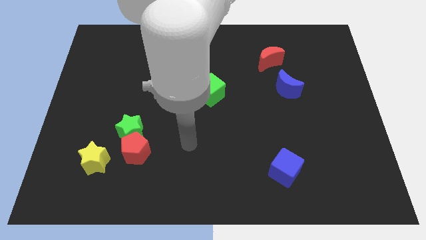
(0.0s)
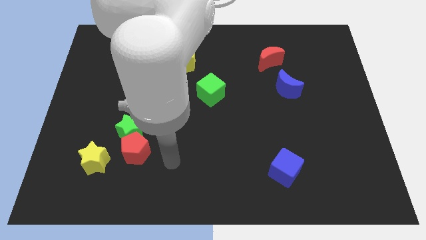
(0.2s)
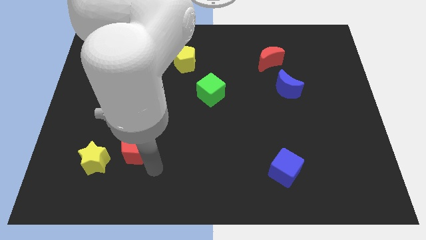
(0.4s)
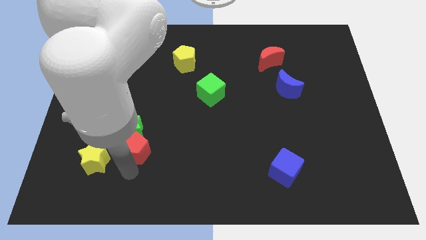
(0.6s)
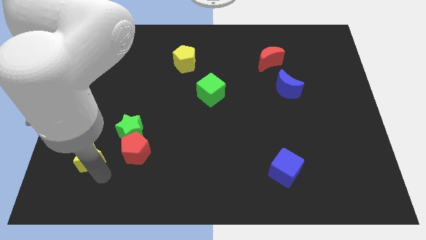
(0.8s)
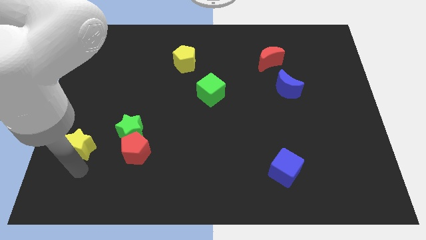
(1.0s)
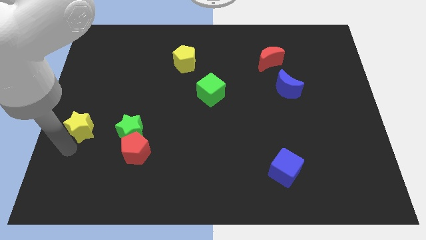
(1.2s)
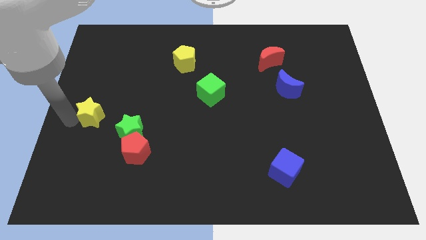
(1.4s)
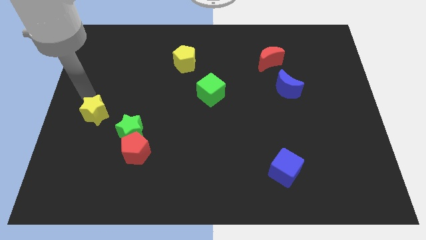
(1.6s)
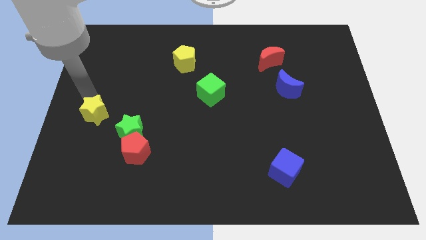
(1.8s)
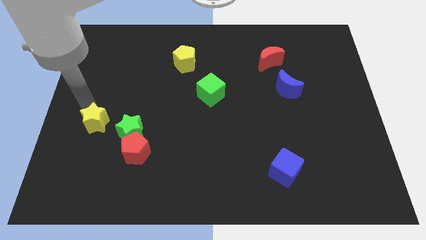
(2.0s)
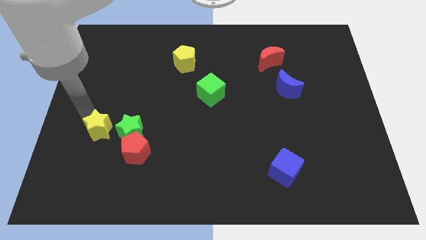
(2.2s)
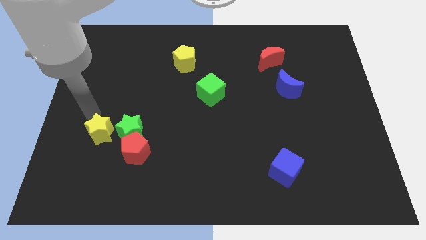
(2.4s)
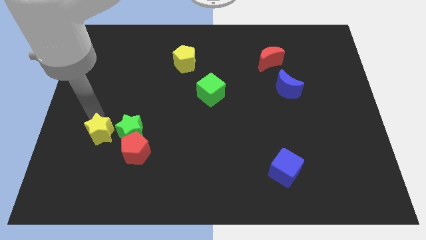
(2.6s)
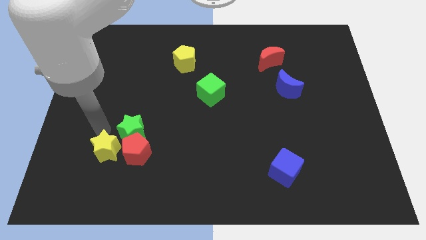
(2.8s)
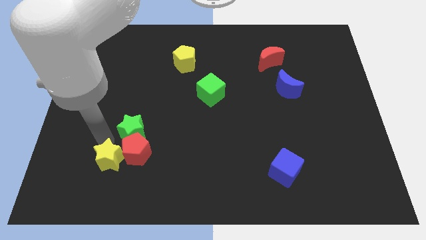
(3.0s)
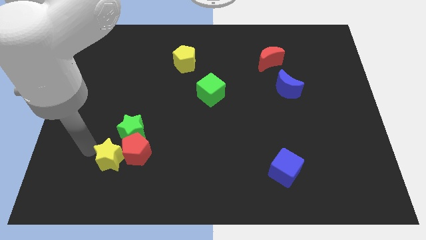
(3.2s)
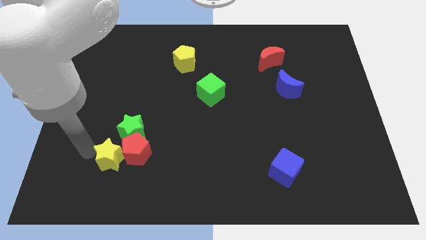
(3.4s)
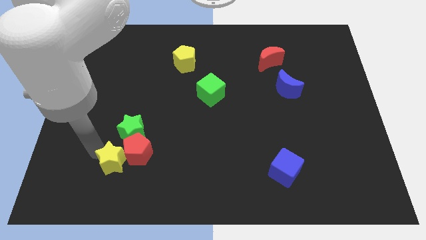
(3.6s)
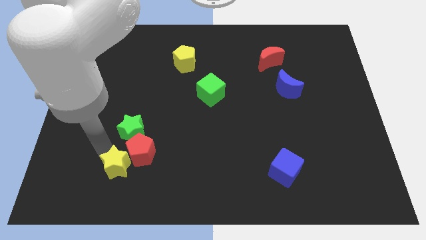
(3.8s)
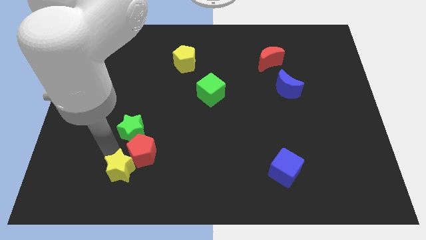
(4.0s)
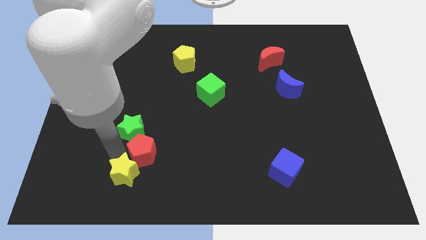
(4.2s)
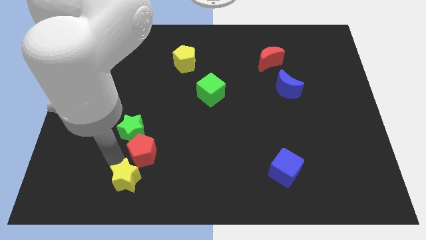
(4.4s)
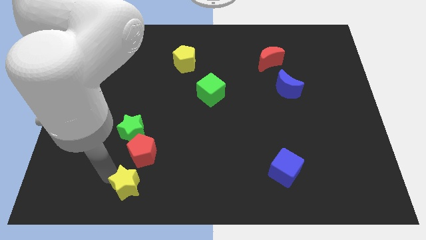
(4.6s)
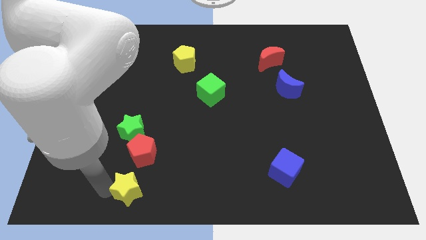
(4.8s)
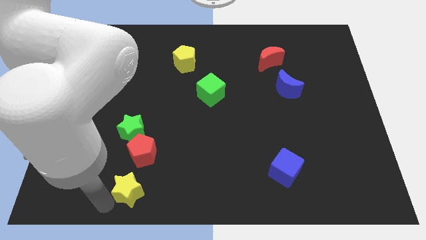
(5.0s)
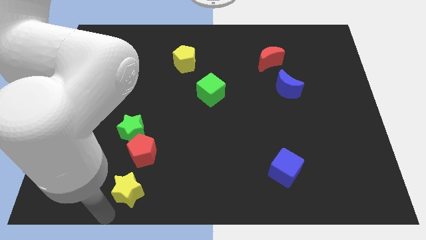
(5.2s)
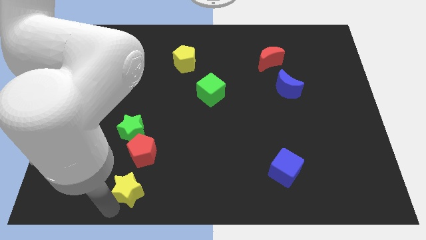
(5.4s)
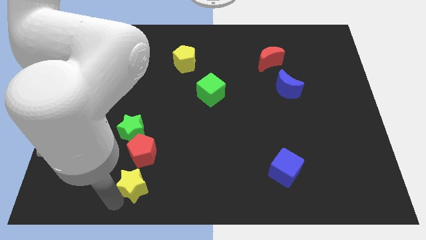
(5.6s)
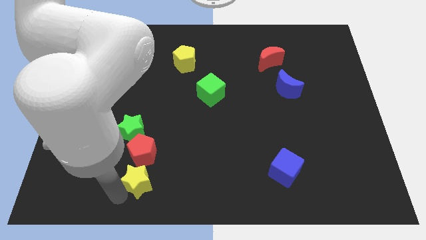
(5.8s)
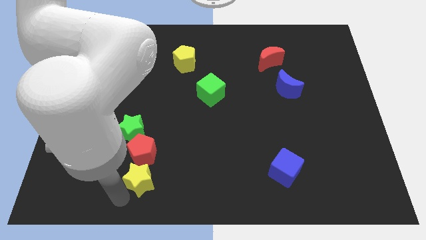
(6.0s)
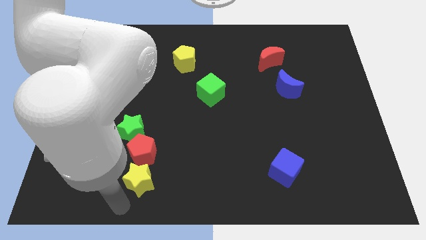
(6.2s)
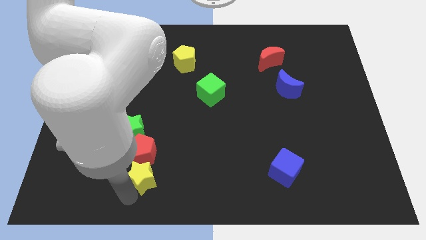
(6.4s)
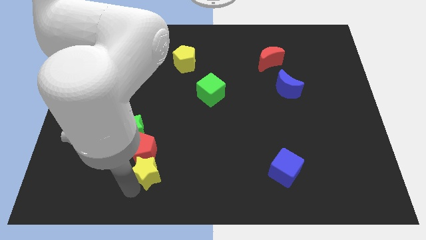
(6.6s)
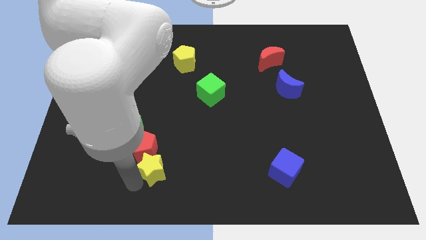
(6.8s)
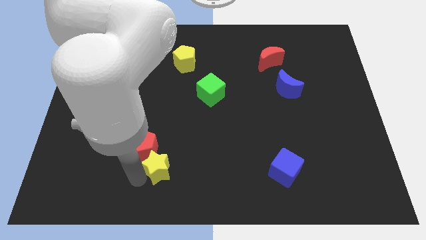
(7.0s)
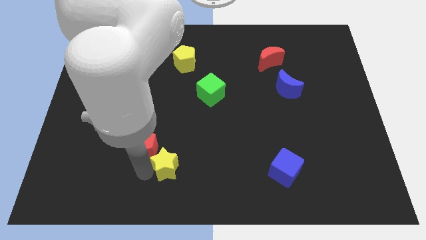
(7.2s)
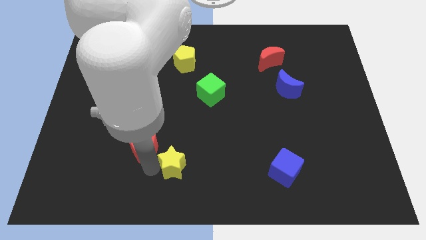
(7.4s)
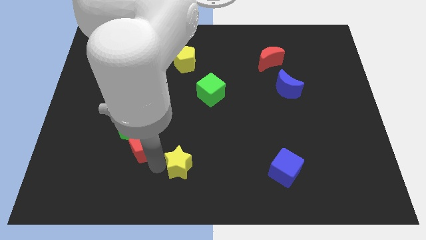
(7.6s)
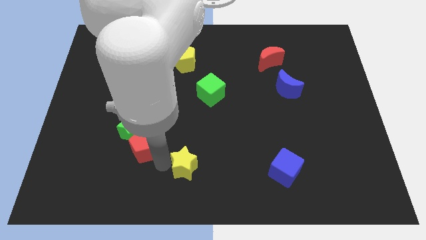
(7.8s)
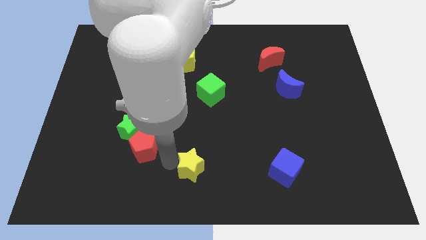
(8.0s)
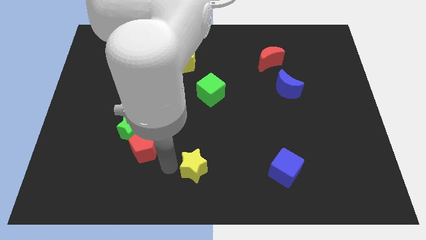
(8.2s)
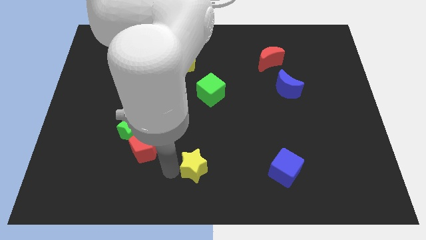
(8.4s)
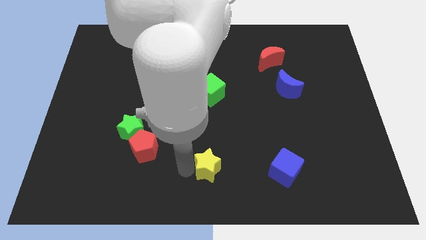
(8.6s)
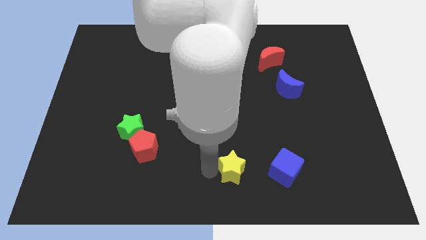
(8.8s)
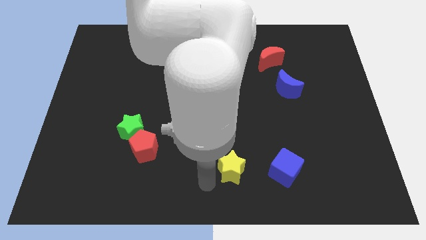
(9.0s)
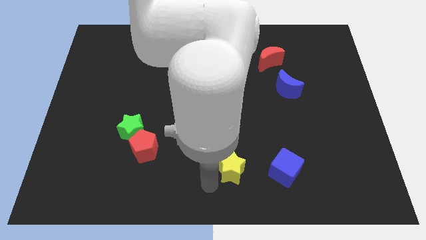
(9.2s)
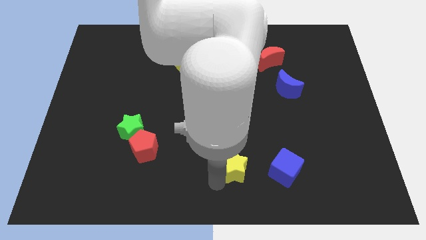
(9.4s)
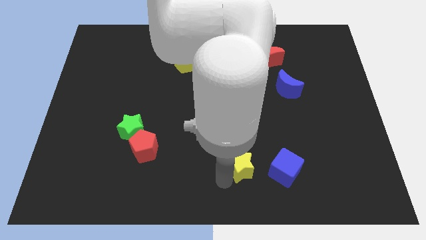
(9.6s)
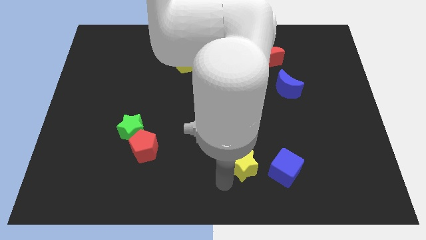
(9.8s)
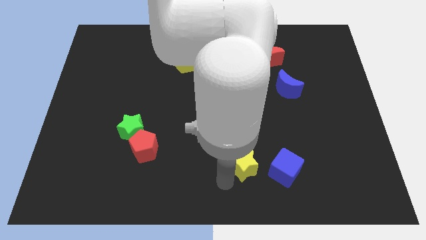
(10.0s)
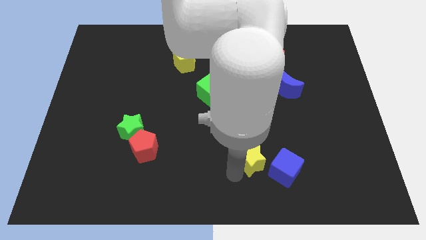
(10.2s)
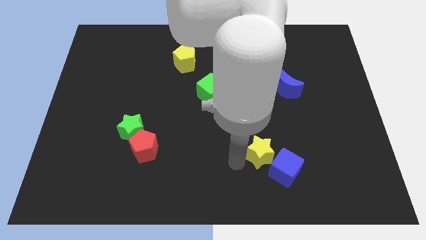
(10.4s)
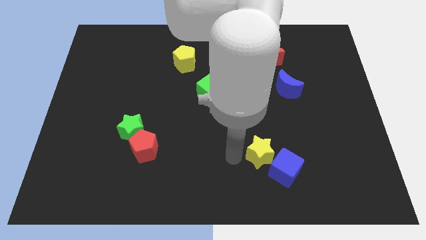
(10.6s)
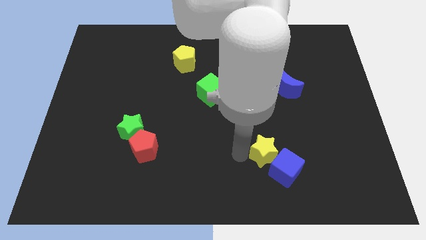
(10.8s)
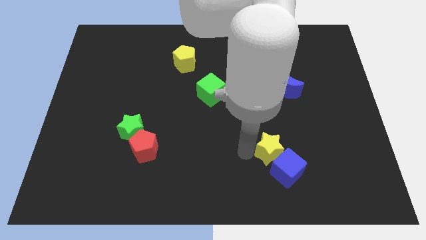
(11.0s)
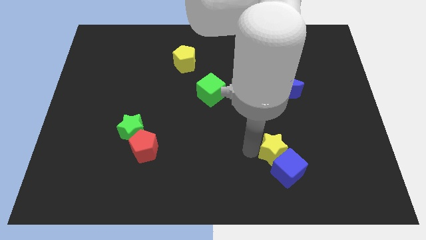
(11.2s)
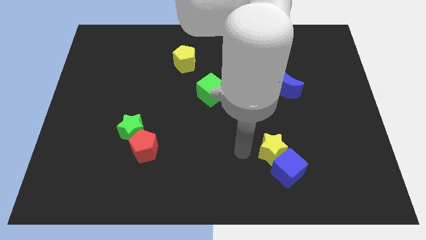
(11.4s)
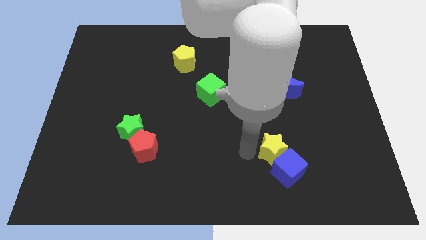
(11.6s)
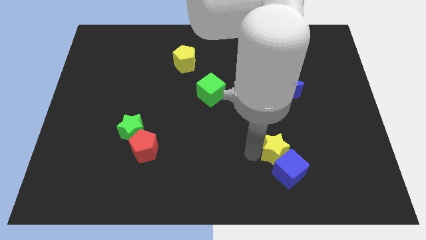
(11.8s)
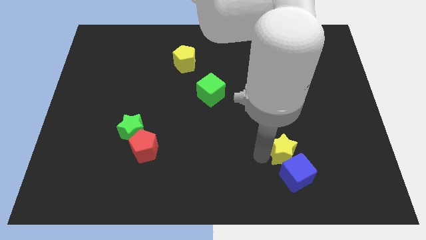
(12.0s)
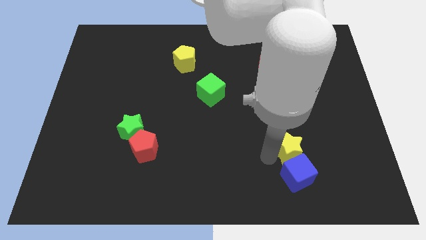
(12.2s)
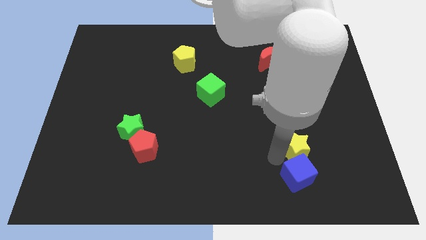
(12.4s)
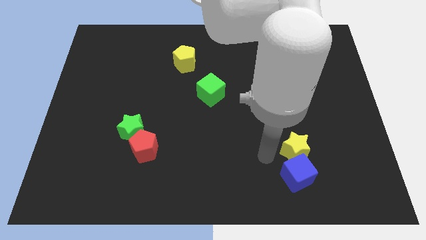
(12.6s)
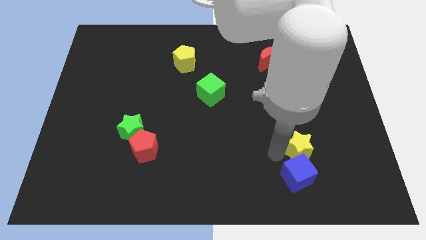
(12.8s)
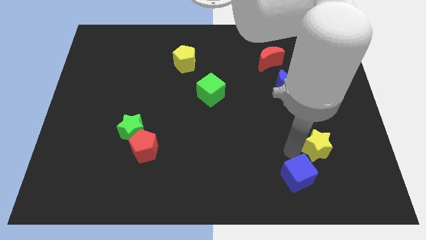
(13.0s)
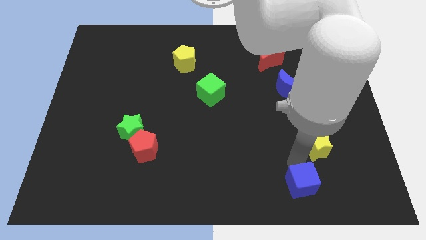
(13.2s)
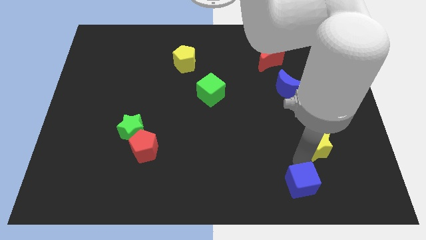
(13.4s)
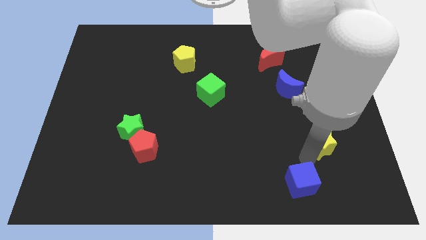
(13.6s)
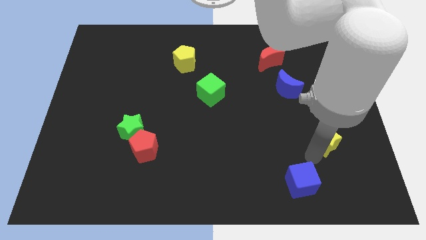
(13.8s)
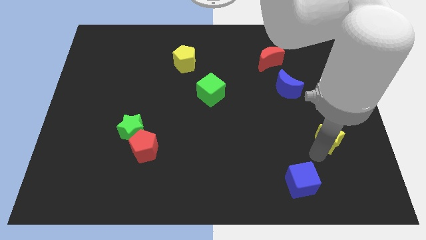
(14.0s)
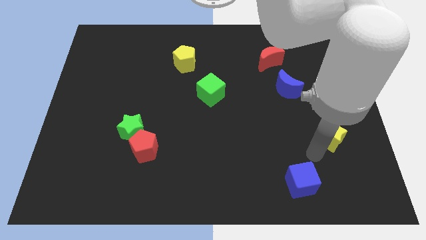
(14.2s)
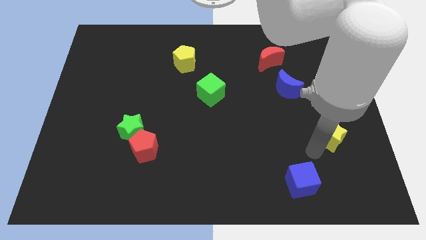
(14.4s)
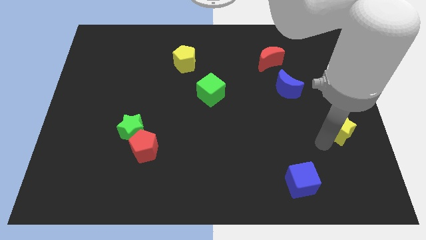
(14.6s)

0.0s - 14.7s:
put the yellow star to the right side of the board

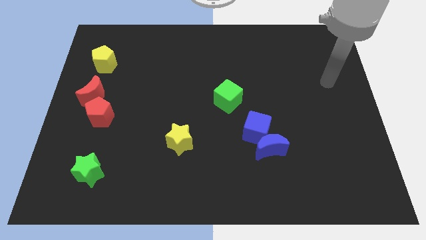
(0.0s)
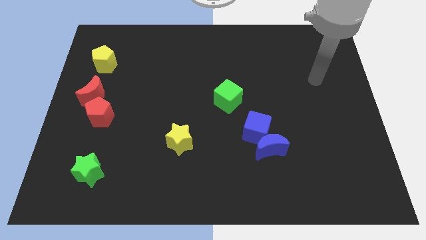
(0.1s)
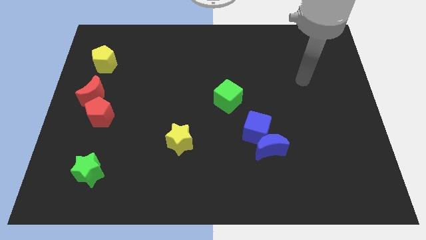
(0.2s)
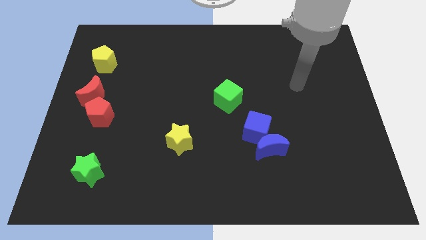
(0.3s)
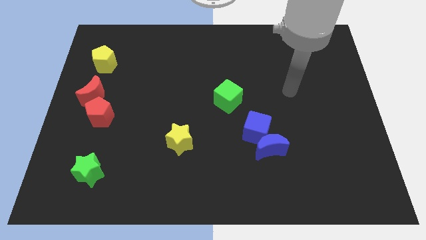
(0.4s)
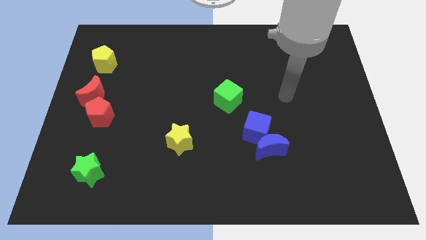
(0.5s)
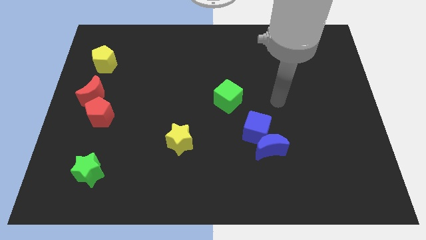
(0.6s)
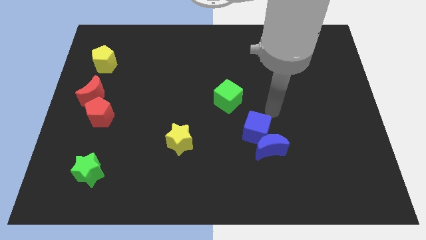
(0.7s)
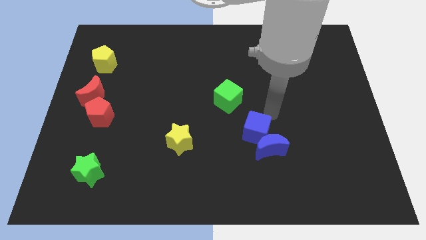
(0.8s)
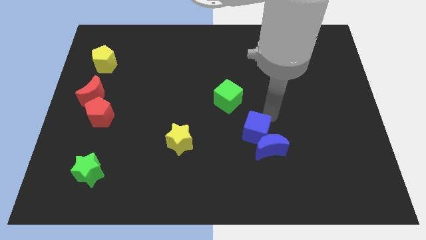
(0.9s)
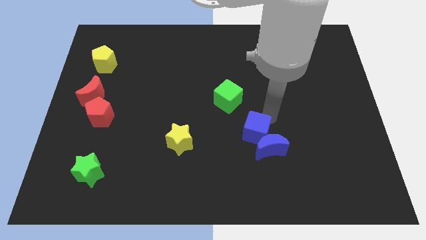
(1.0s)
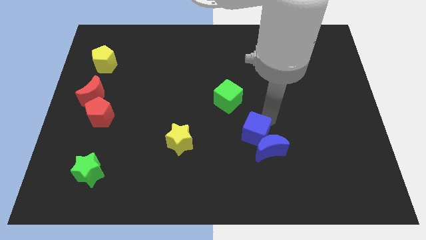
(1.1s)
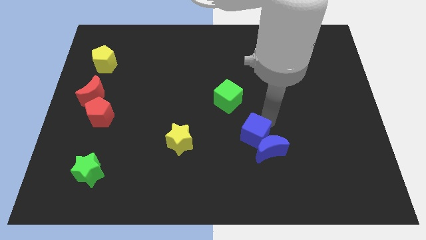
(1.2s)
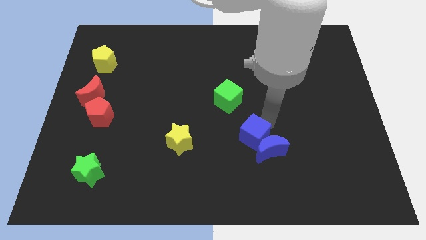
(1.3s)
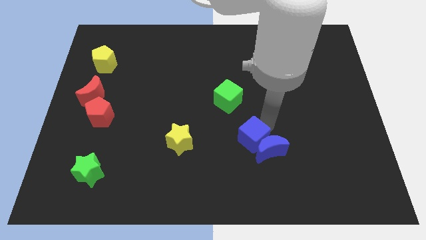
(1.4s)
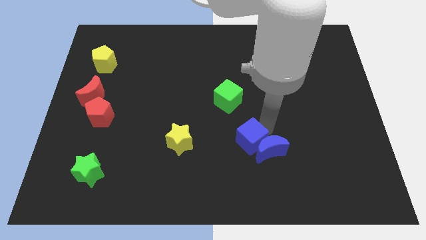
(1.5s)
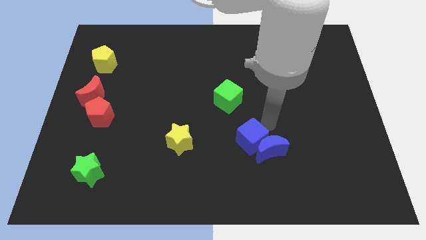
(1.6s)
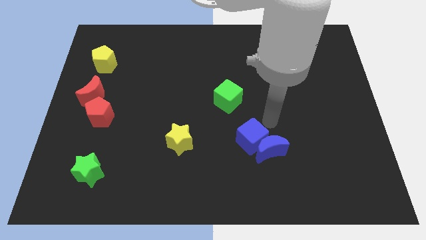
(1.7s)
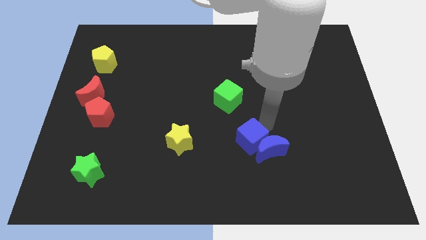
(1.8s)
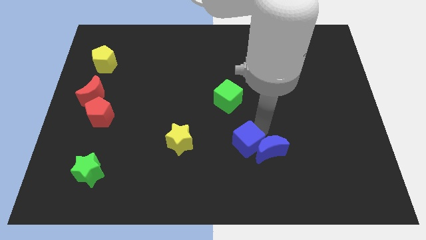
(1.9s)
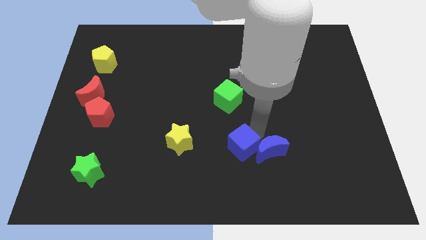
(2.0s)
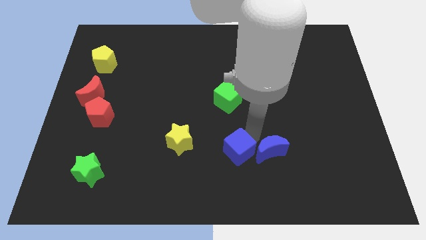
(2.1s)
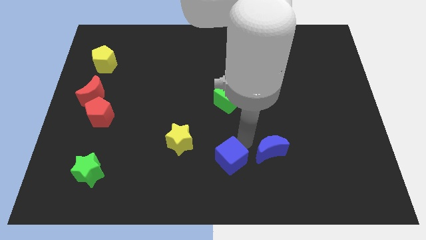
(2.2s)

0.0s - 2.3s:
put the blue cube to the bottom side
